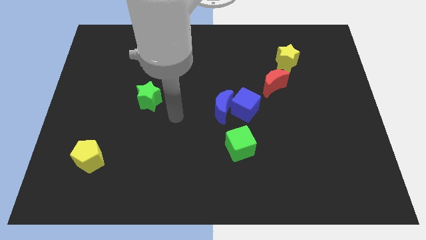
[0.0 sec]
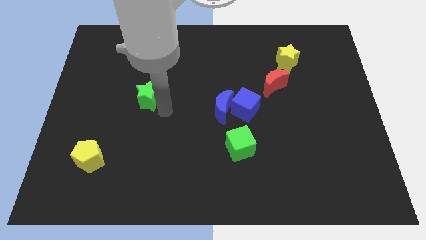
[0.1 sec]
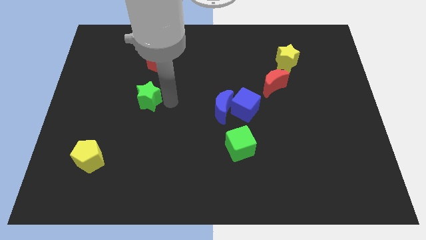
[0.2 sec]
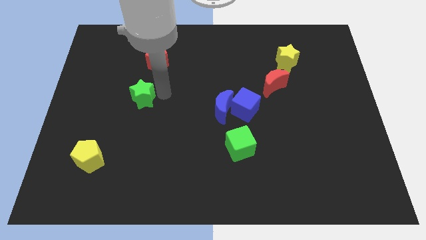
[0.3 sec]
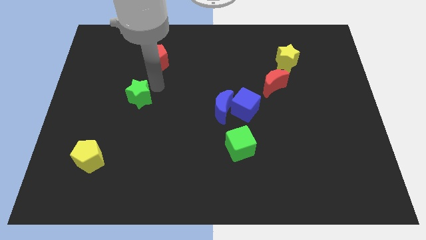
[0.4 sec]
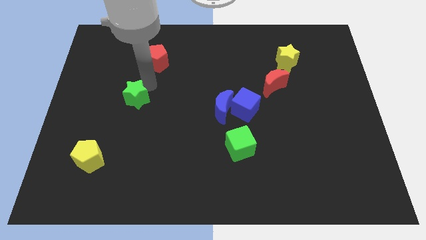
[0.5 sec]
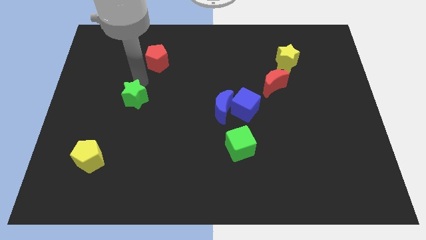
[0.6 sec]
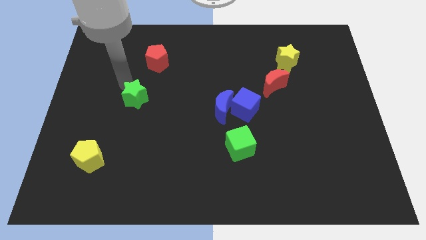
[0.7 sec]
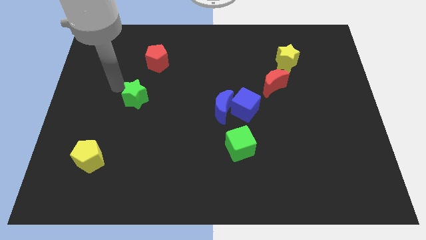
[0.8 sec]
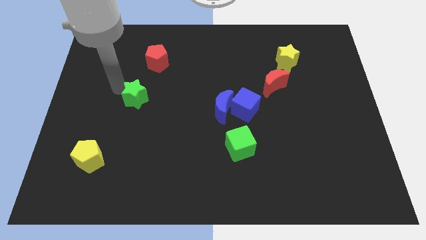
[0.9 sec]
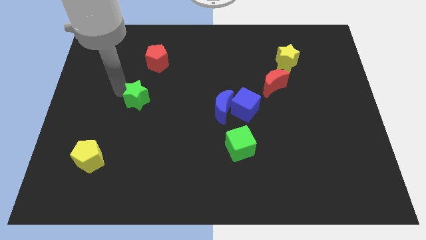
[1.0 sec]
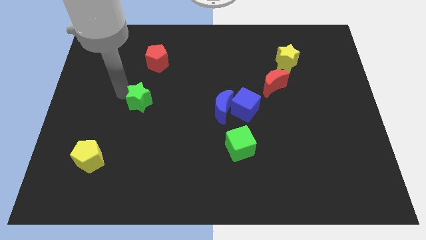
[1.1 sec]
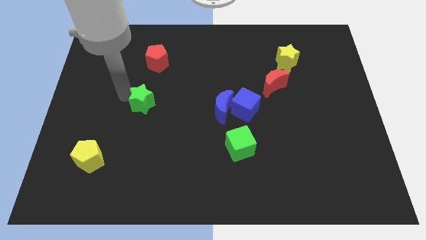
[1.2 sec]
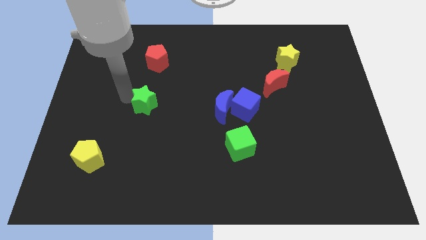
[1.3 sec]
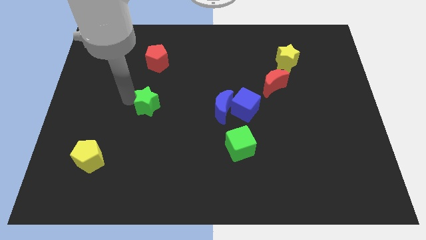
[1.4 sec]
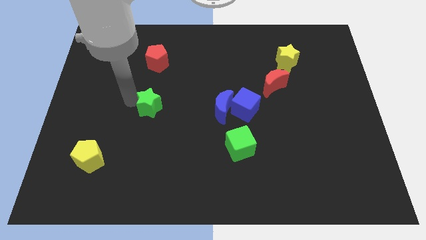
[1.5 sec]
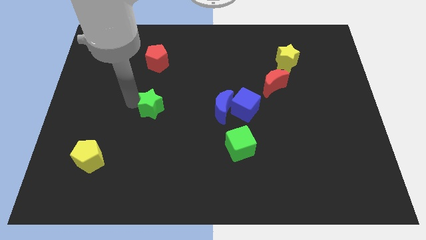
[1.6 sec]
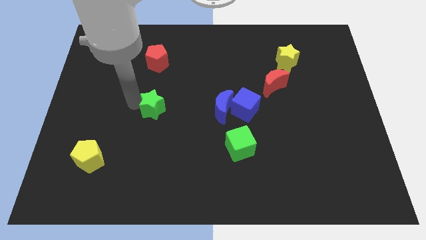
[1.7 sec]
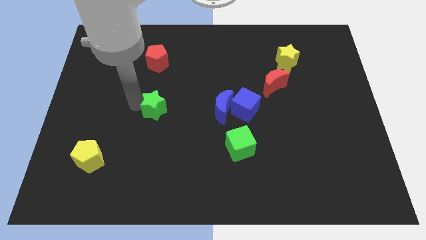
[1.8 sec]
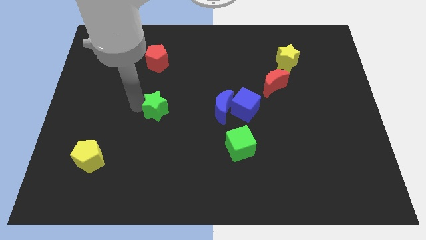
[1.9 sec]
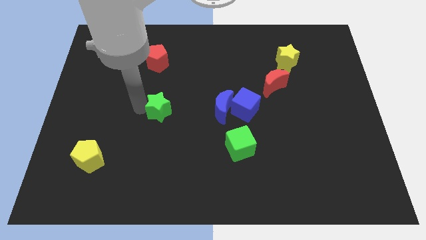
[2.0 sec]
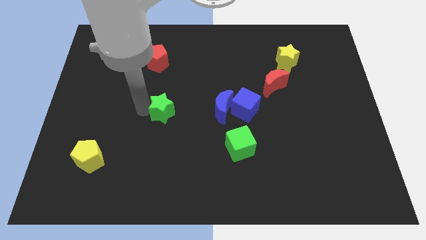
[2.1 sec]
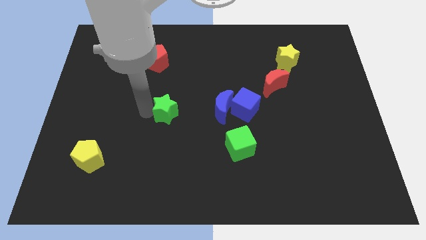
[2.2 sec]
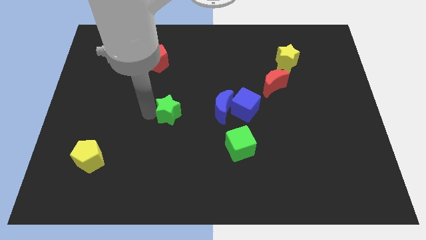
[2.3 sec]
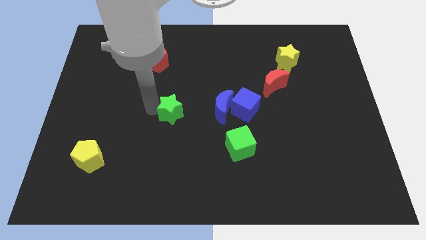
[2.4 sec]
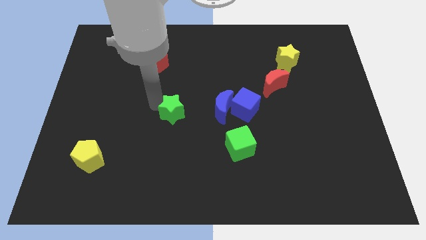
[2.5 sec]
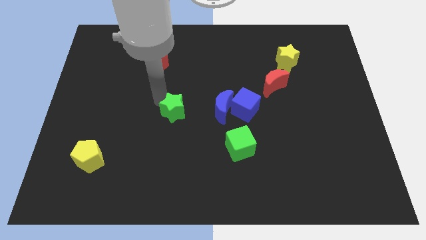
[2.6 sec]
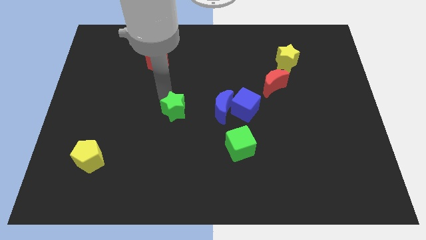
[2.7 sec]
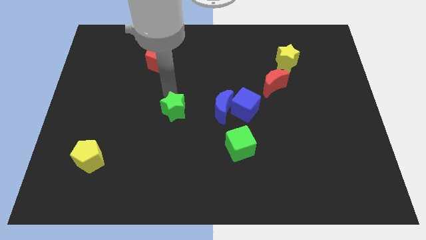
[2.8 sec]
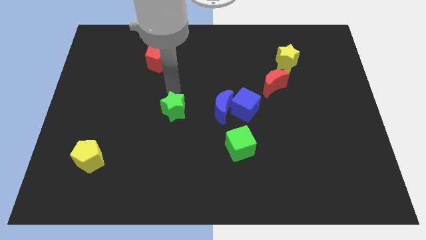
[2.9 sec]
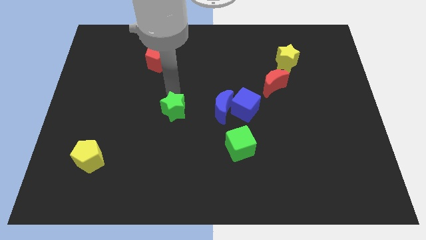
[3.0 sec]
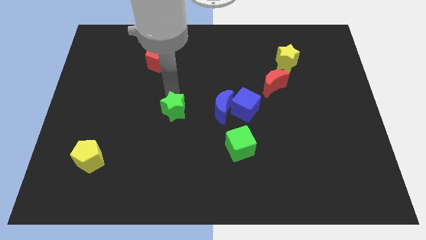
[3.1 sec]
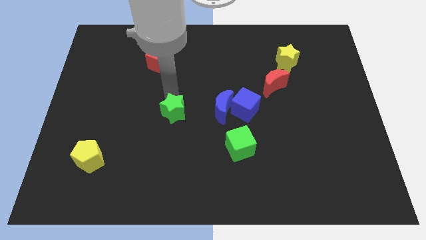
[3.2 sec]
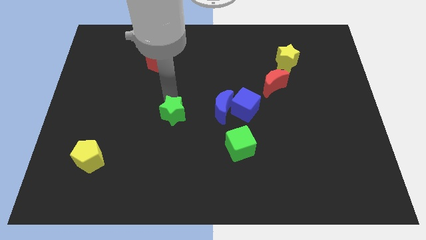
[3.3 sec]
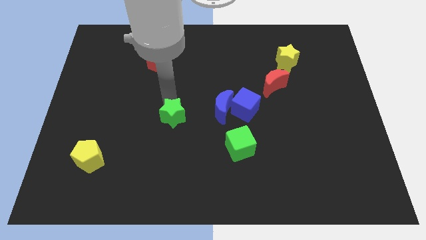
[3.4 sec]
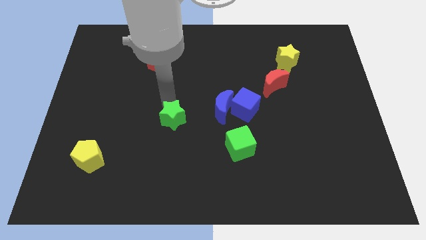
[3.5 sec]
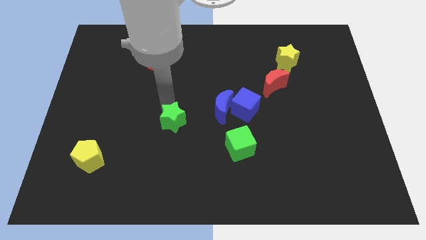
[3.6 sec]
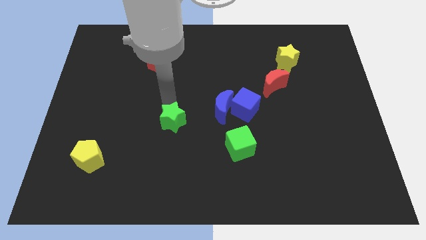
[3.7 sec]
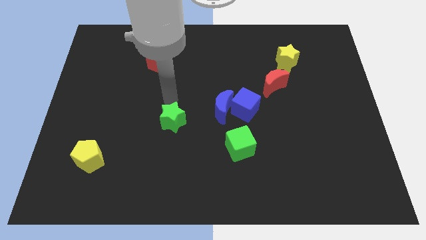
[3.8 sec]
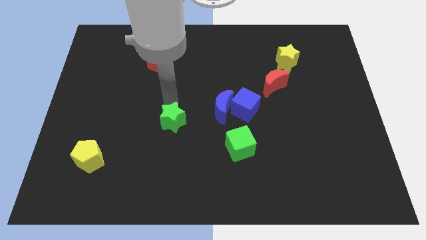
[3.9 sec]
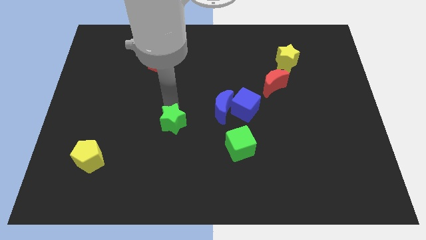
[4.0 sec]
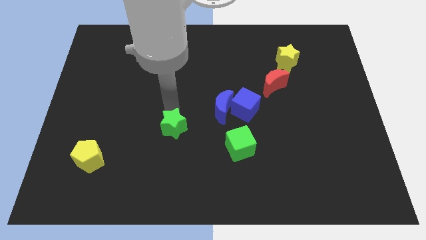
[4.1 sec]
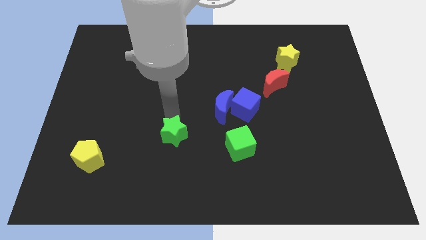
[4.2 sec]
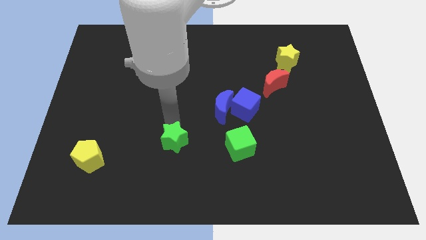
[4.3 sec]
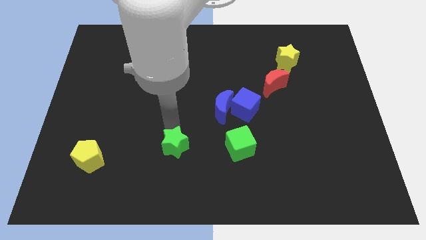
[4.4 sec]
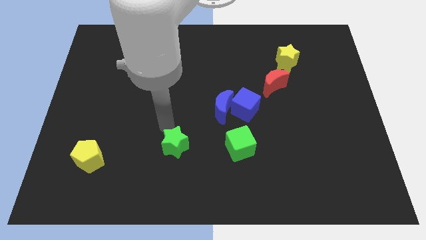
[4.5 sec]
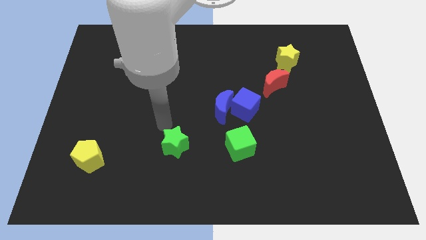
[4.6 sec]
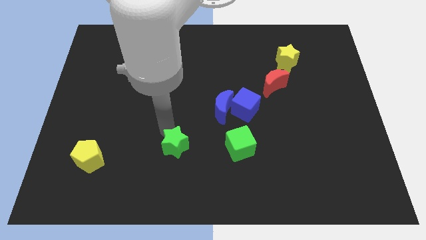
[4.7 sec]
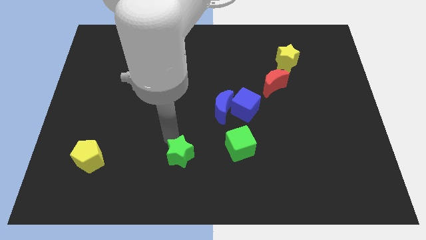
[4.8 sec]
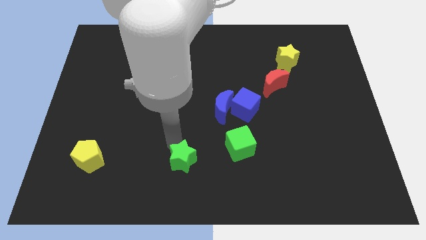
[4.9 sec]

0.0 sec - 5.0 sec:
move the green star to the bottom

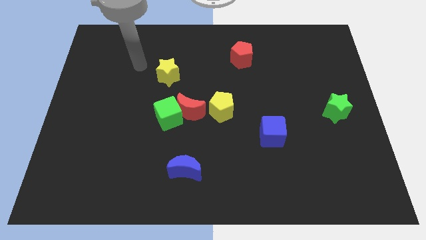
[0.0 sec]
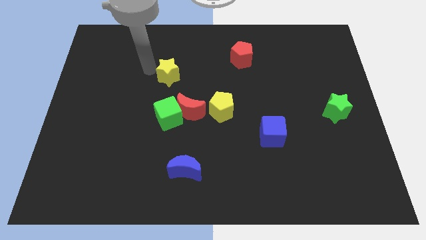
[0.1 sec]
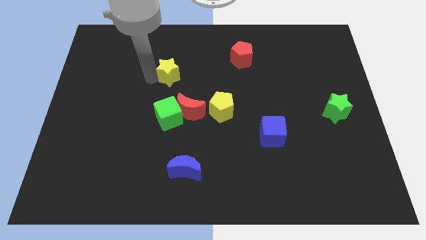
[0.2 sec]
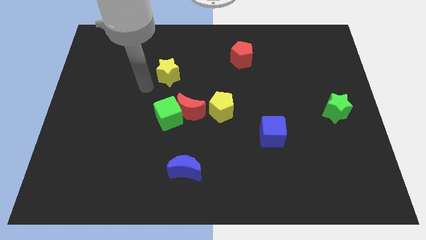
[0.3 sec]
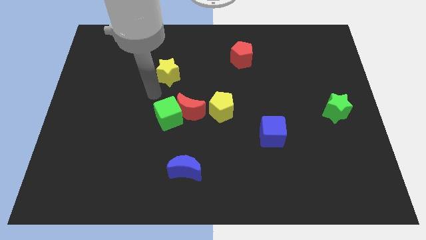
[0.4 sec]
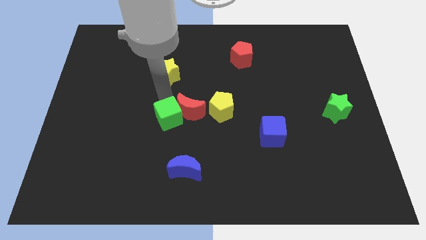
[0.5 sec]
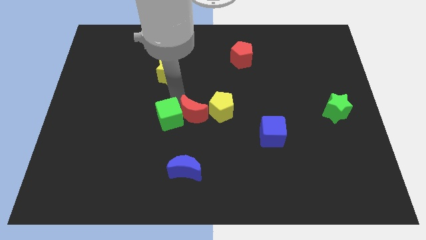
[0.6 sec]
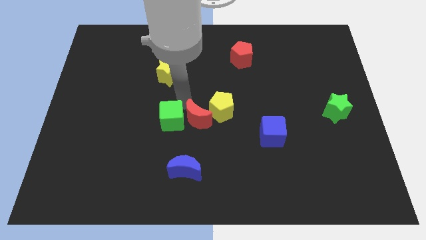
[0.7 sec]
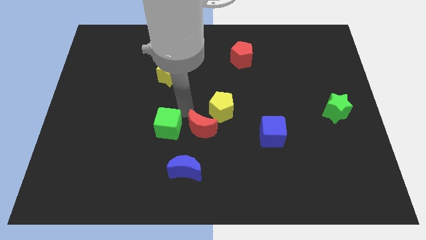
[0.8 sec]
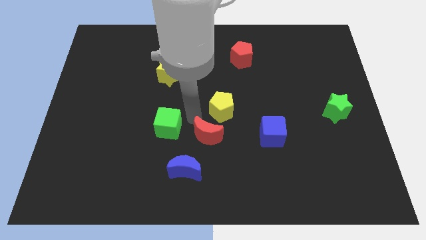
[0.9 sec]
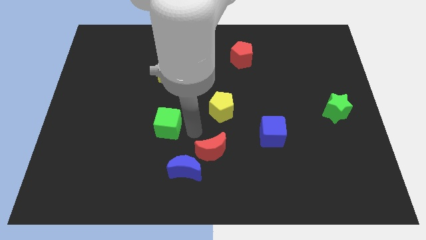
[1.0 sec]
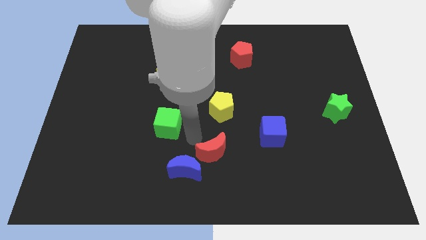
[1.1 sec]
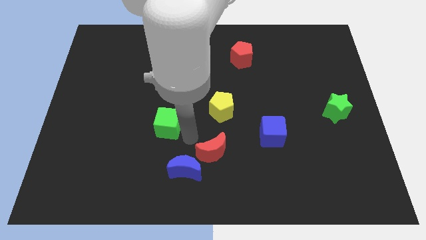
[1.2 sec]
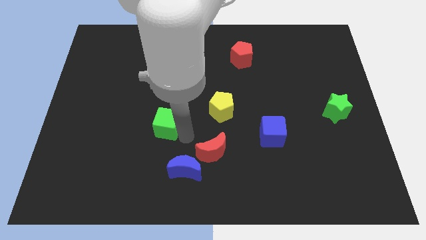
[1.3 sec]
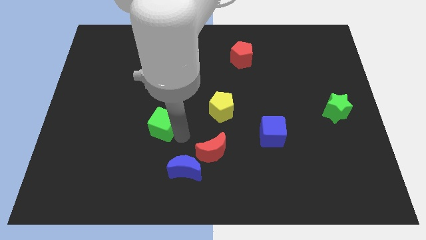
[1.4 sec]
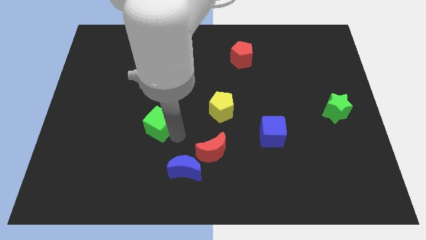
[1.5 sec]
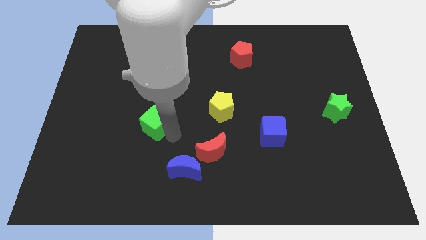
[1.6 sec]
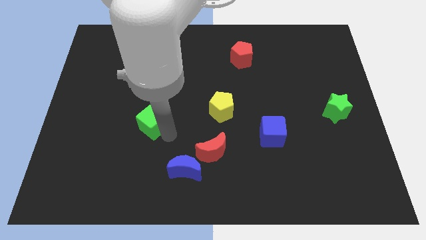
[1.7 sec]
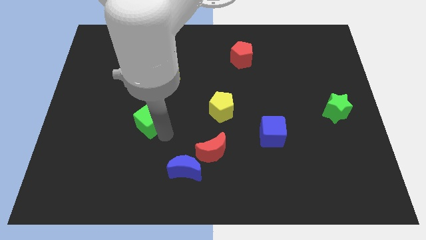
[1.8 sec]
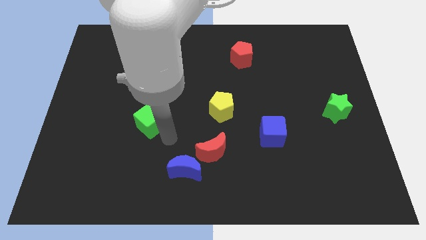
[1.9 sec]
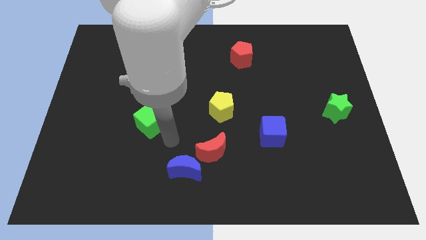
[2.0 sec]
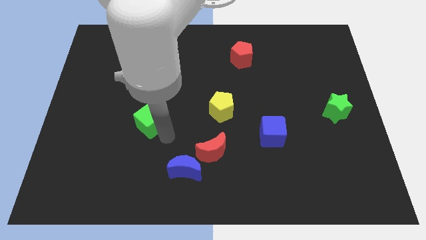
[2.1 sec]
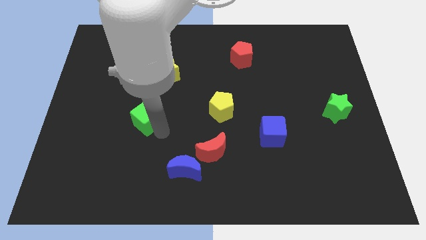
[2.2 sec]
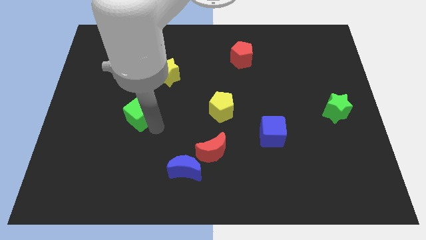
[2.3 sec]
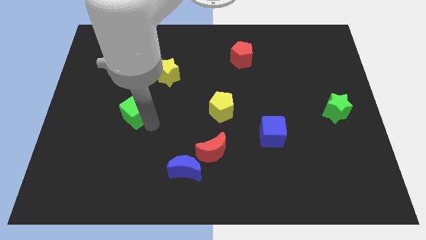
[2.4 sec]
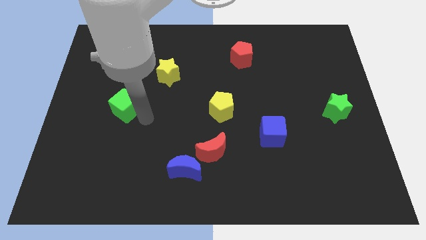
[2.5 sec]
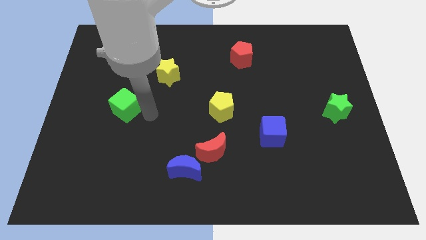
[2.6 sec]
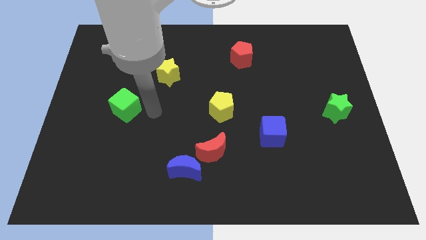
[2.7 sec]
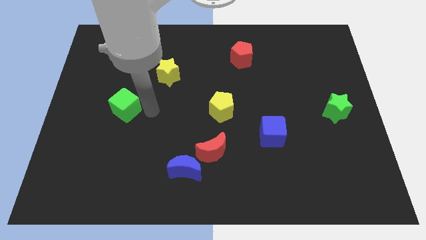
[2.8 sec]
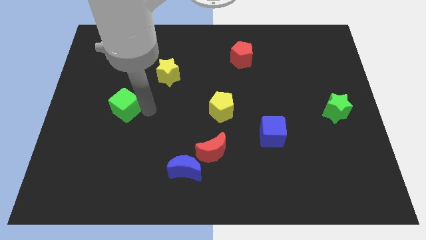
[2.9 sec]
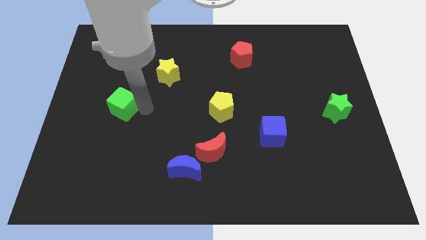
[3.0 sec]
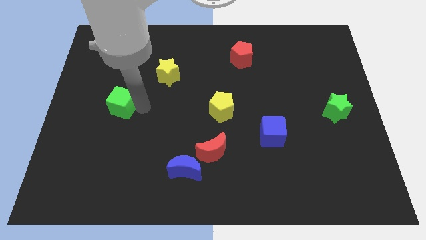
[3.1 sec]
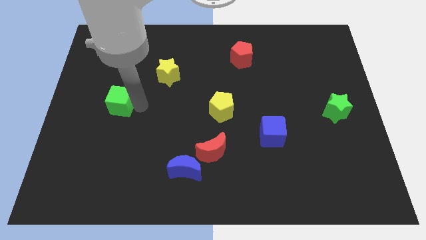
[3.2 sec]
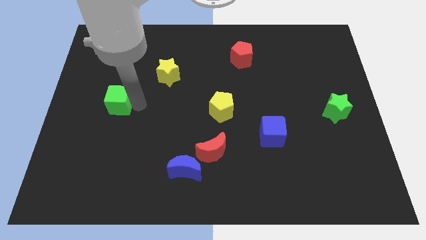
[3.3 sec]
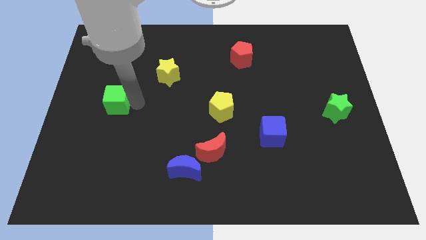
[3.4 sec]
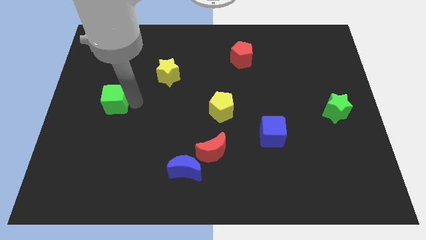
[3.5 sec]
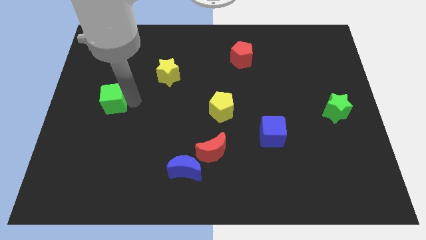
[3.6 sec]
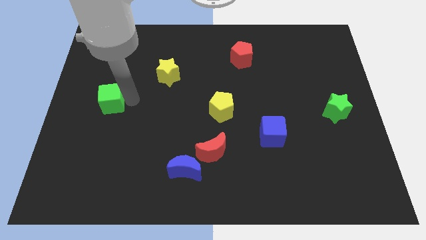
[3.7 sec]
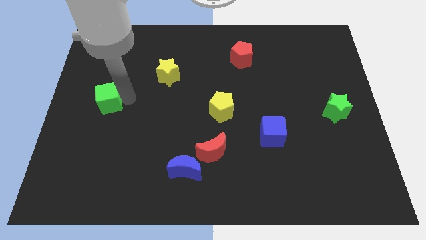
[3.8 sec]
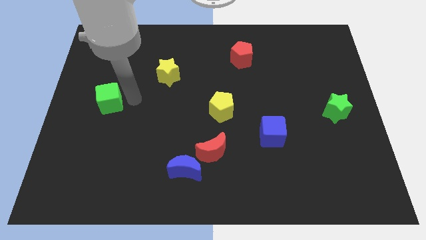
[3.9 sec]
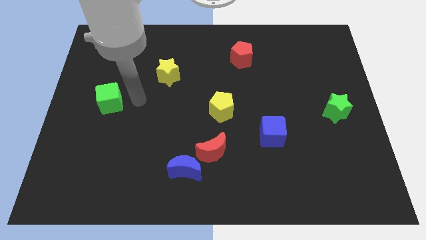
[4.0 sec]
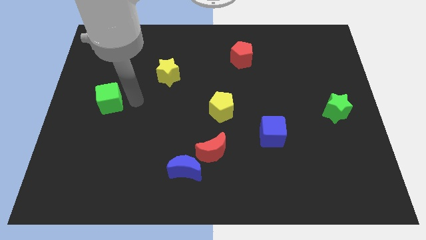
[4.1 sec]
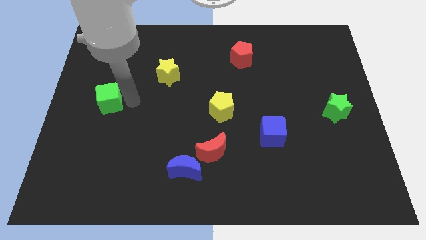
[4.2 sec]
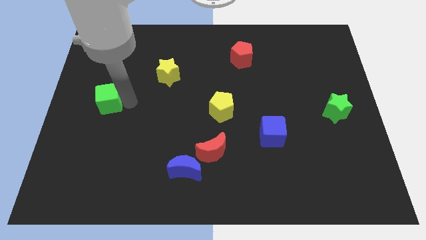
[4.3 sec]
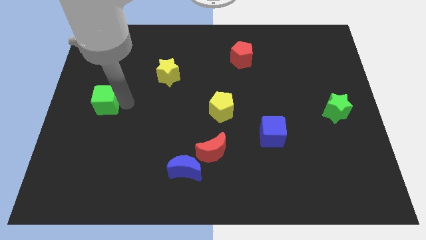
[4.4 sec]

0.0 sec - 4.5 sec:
slide the green cube to the center left
